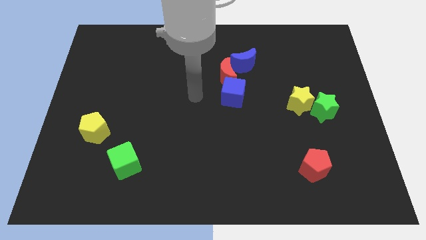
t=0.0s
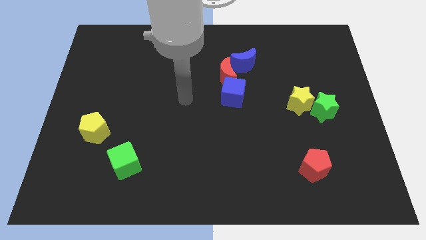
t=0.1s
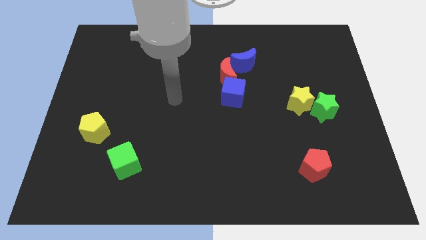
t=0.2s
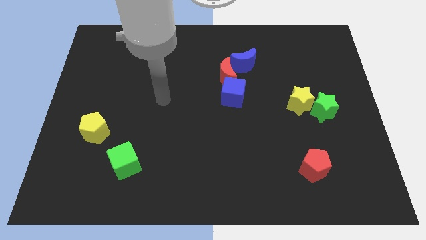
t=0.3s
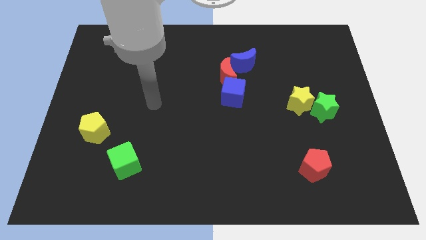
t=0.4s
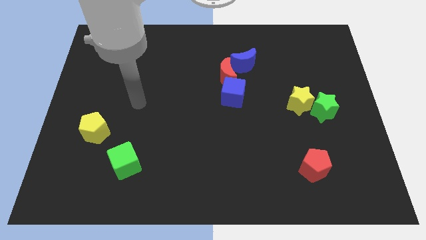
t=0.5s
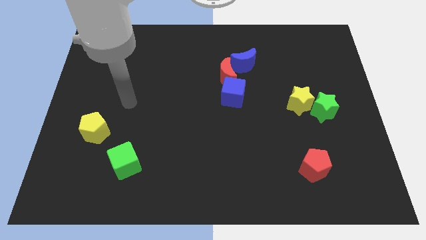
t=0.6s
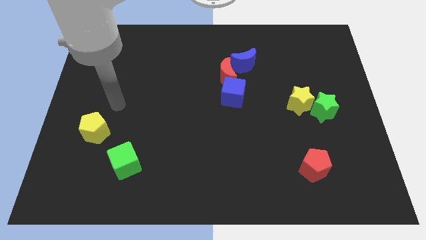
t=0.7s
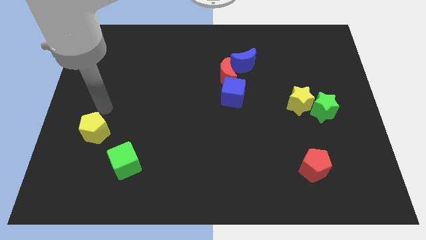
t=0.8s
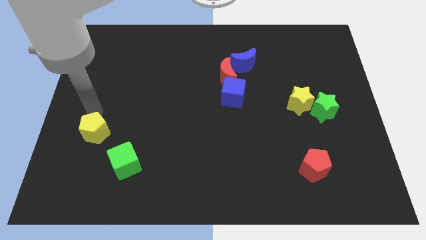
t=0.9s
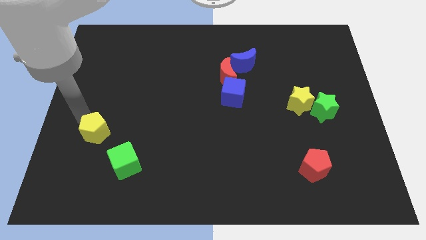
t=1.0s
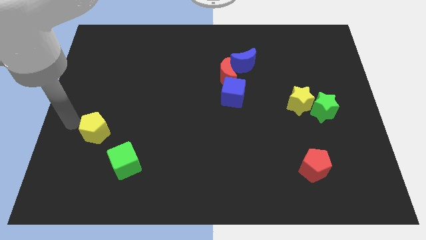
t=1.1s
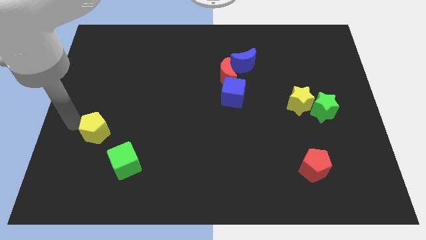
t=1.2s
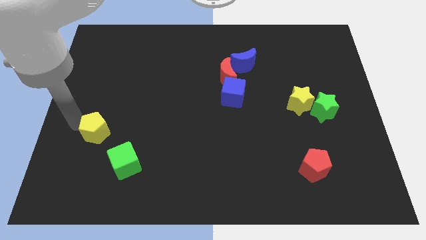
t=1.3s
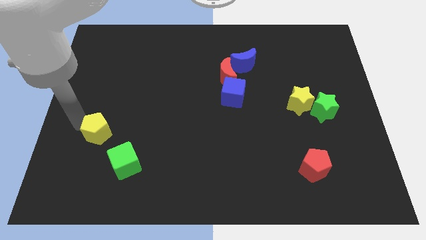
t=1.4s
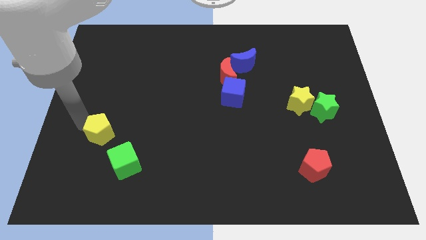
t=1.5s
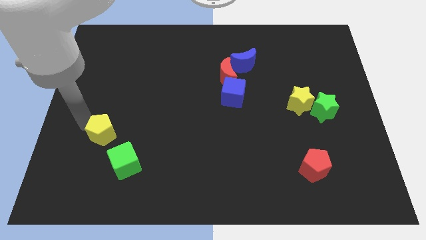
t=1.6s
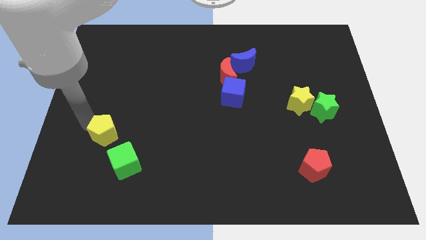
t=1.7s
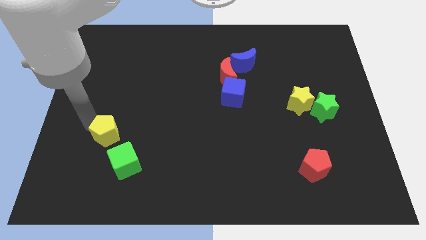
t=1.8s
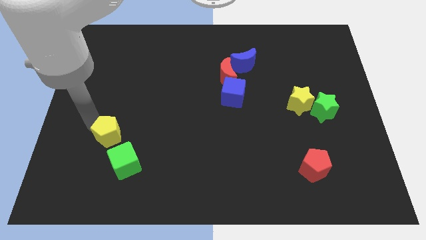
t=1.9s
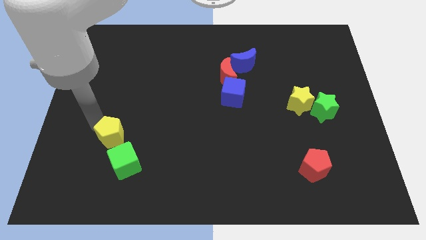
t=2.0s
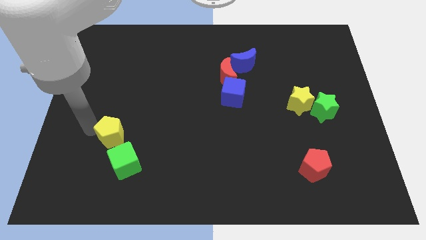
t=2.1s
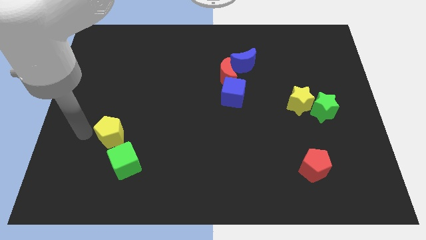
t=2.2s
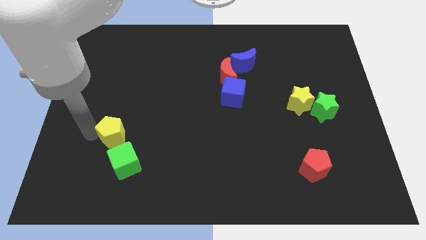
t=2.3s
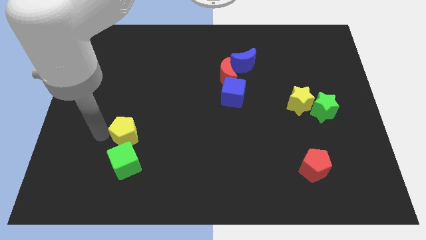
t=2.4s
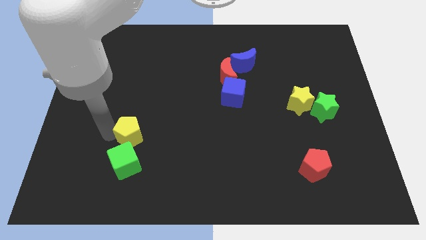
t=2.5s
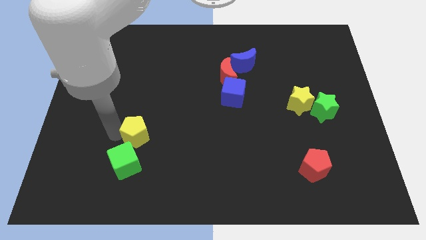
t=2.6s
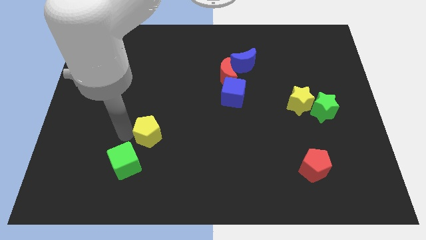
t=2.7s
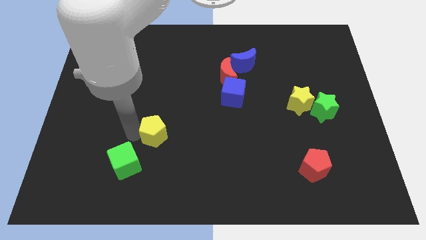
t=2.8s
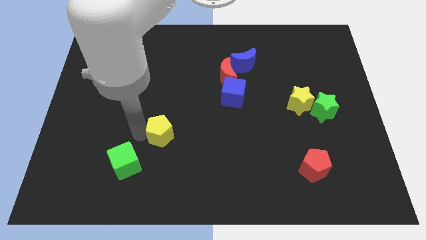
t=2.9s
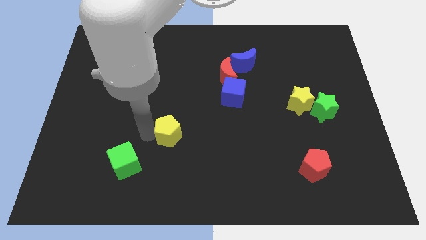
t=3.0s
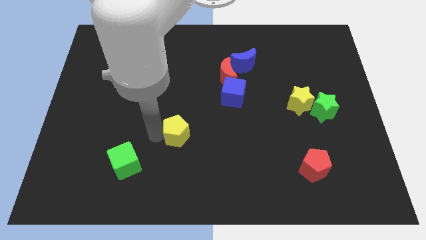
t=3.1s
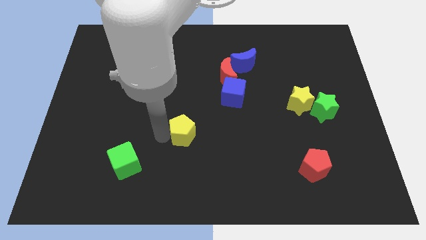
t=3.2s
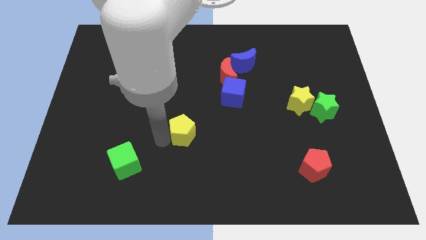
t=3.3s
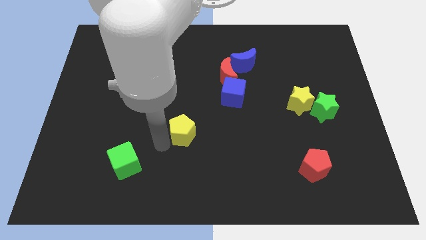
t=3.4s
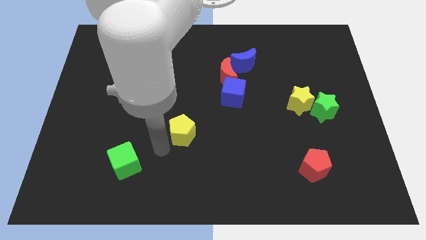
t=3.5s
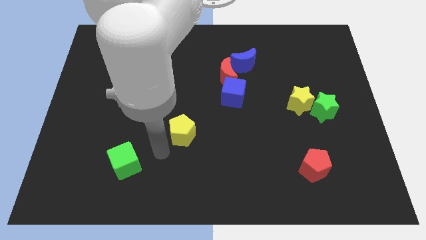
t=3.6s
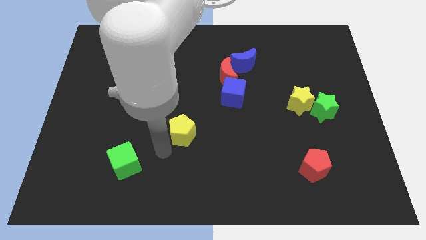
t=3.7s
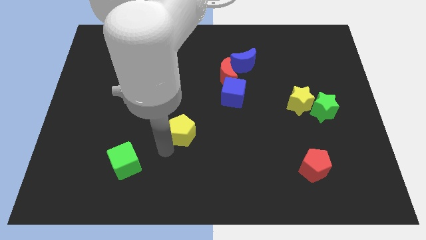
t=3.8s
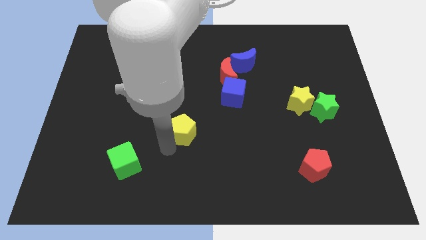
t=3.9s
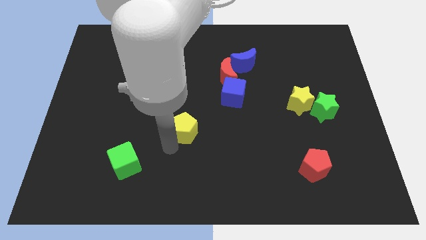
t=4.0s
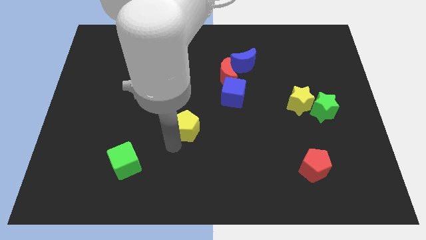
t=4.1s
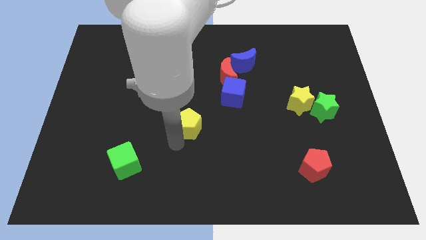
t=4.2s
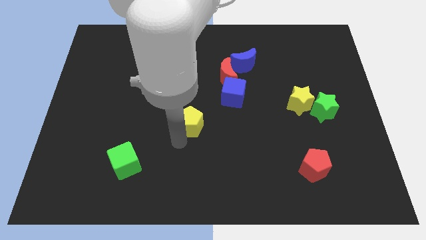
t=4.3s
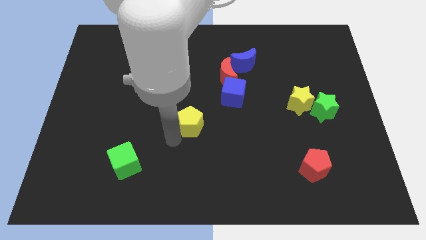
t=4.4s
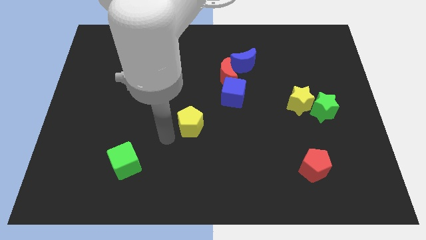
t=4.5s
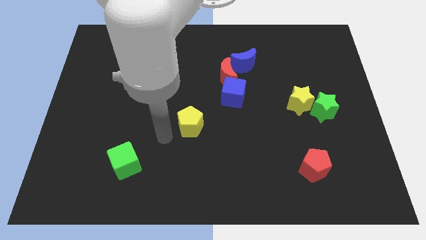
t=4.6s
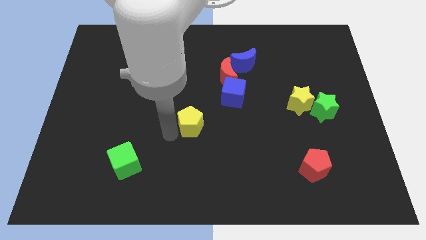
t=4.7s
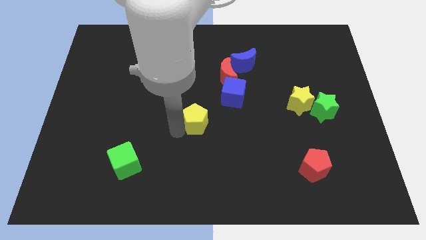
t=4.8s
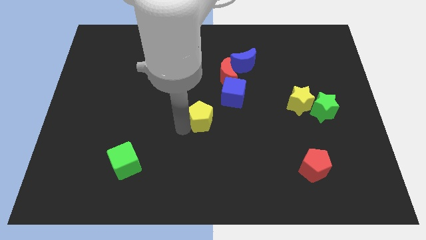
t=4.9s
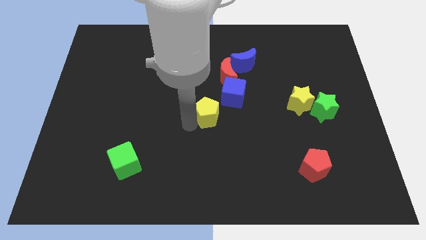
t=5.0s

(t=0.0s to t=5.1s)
move the yellow pentagon below the red moon

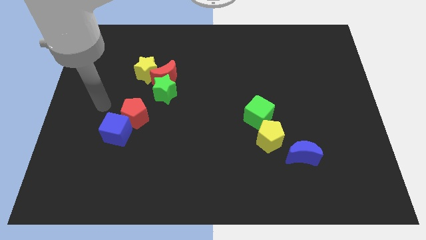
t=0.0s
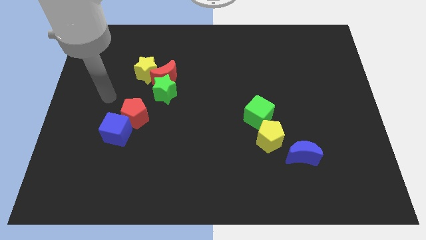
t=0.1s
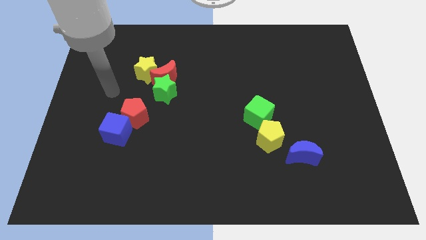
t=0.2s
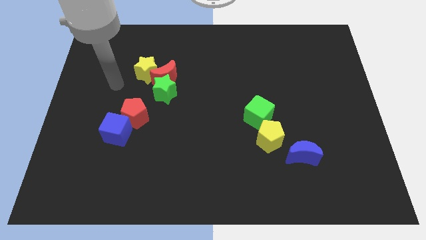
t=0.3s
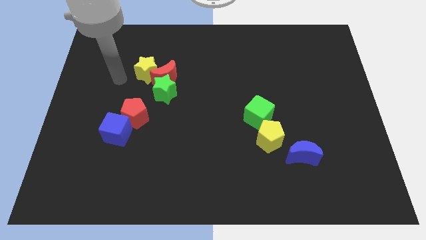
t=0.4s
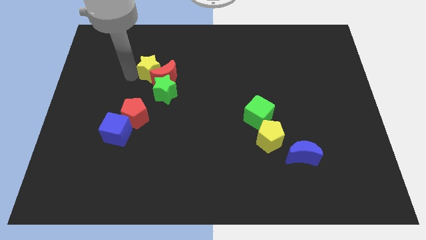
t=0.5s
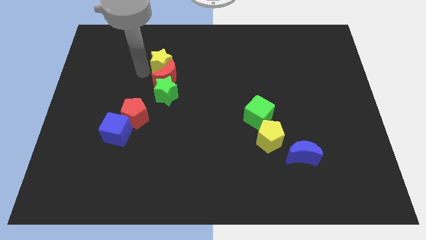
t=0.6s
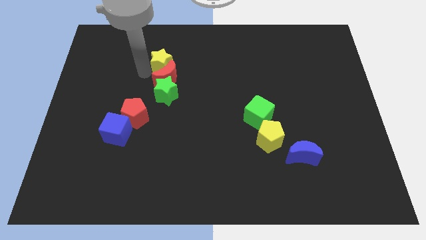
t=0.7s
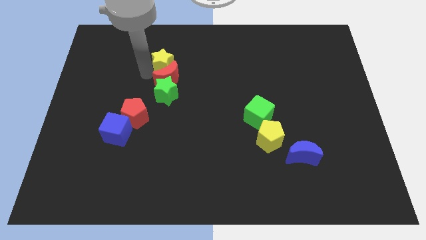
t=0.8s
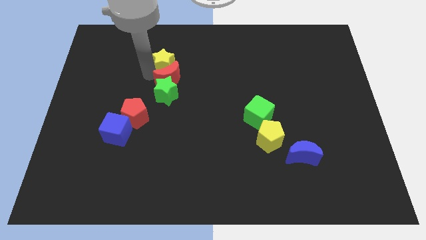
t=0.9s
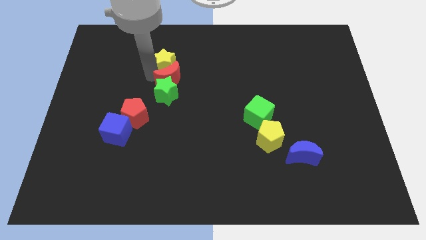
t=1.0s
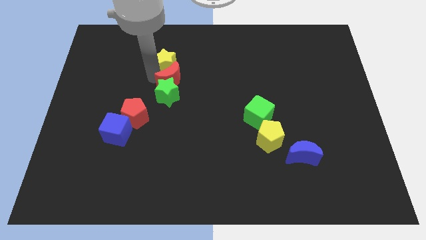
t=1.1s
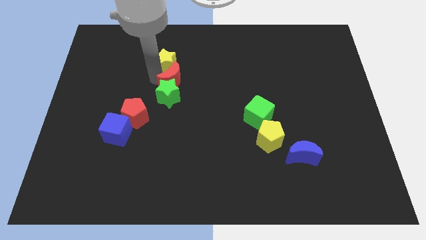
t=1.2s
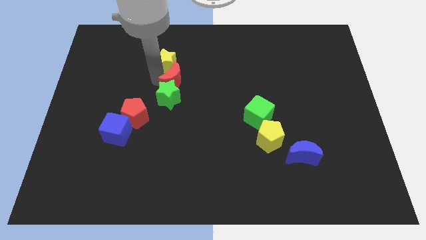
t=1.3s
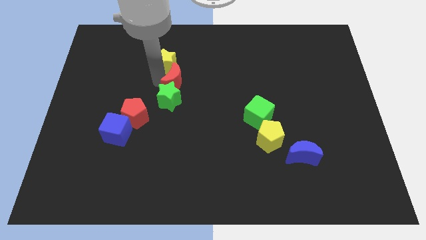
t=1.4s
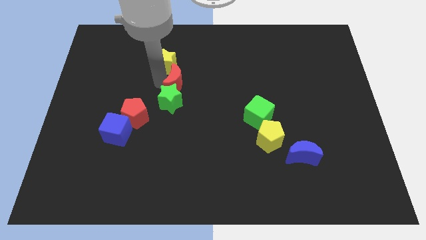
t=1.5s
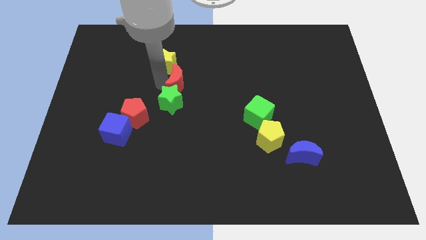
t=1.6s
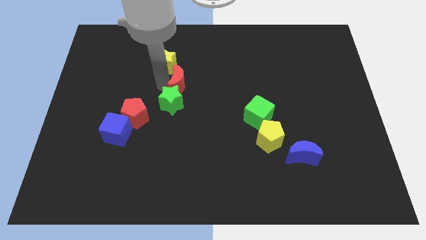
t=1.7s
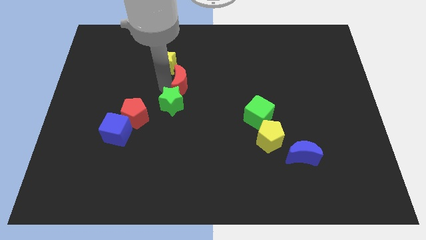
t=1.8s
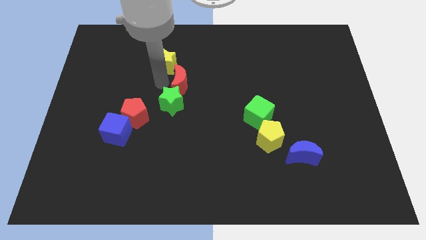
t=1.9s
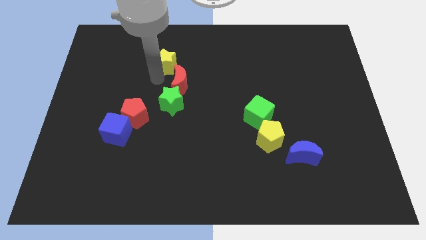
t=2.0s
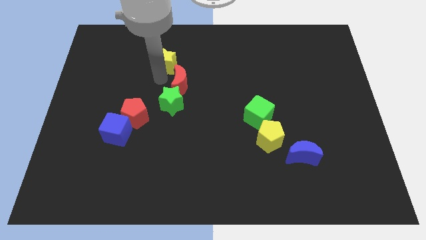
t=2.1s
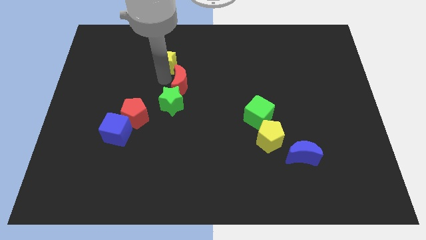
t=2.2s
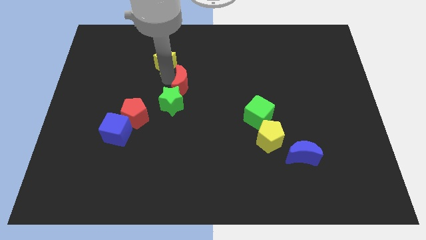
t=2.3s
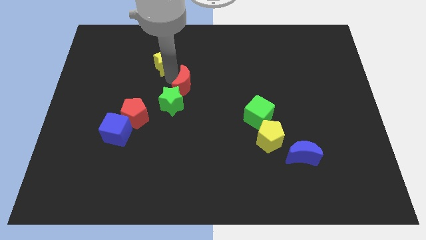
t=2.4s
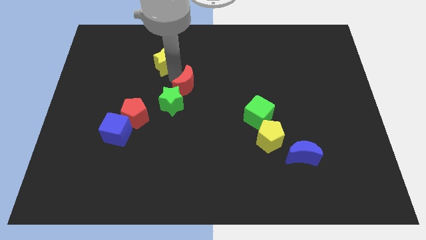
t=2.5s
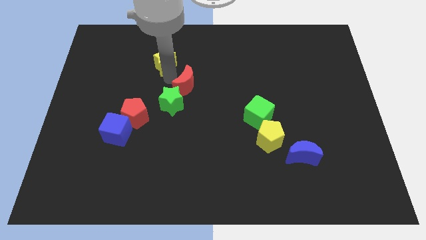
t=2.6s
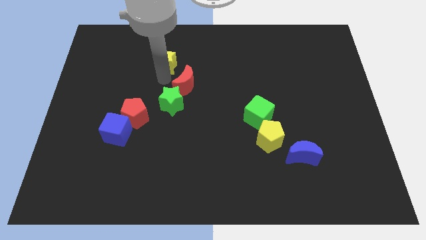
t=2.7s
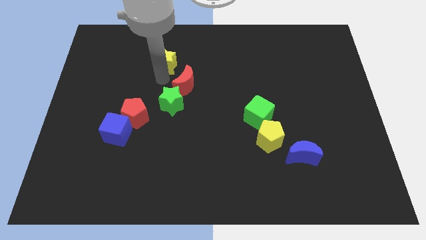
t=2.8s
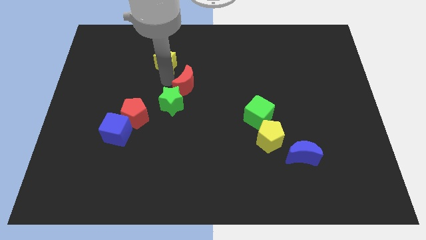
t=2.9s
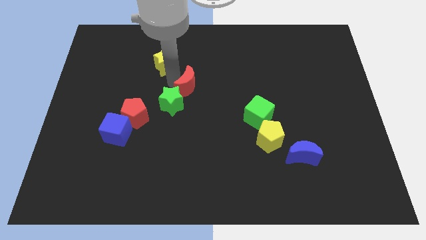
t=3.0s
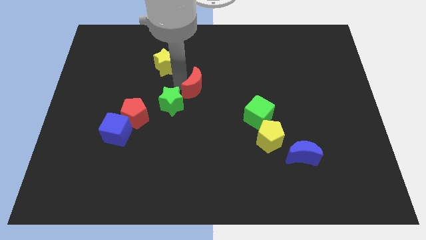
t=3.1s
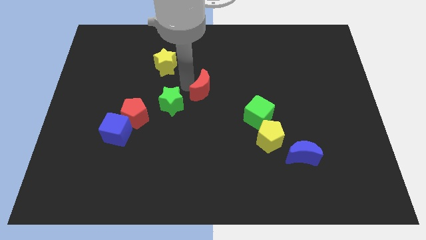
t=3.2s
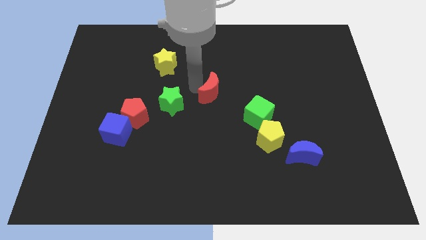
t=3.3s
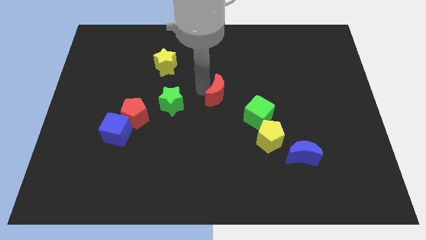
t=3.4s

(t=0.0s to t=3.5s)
slide the red moon to the top left of the green cube
